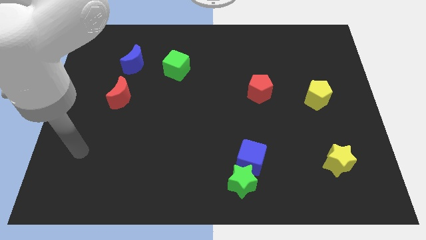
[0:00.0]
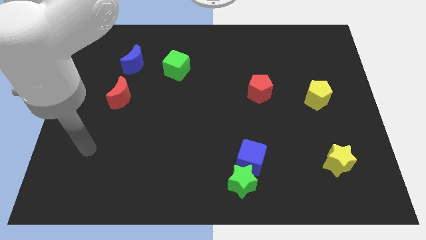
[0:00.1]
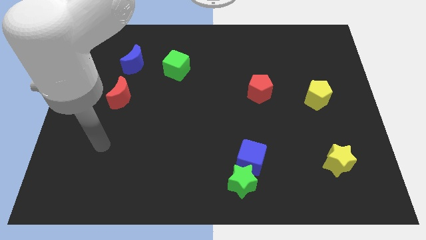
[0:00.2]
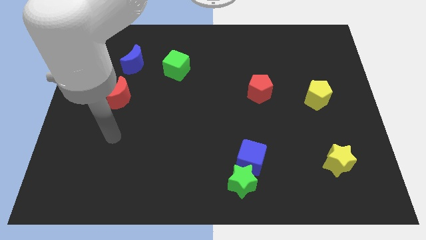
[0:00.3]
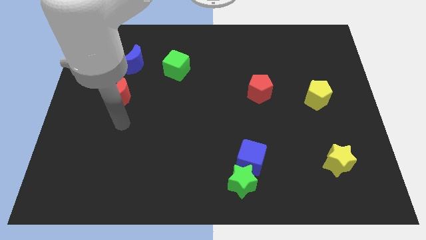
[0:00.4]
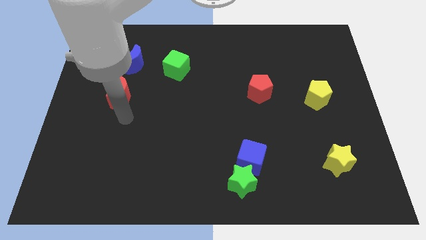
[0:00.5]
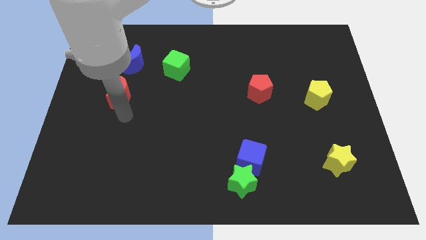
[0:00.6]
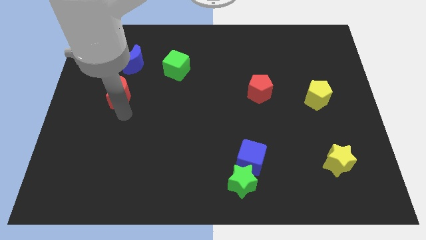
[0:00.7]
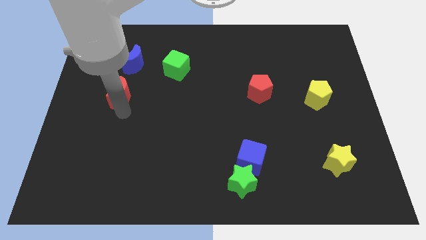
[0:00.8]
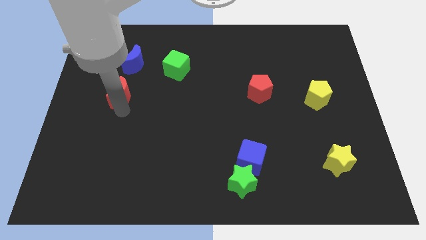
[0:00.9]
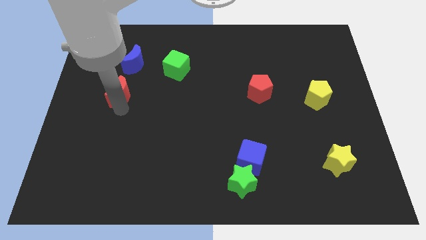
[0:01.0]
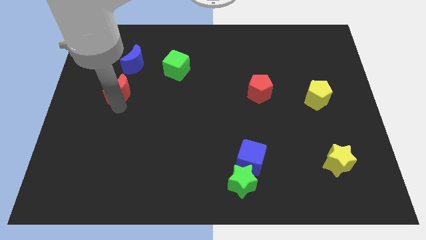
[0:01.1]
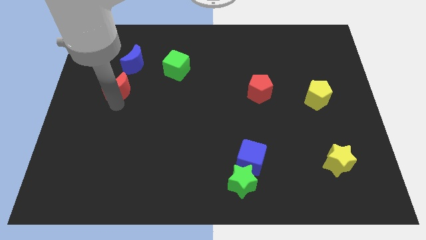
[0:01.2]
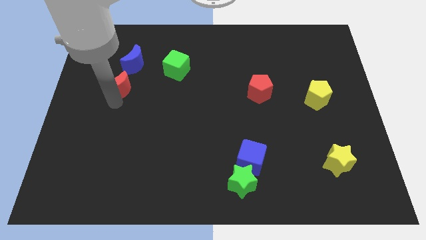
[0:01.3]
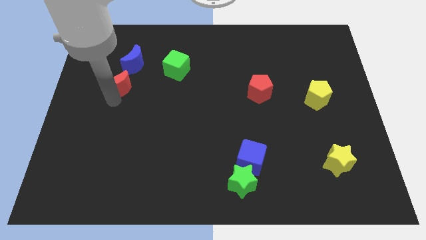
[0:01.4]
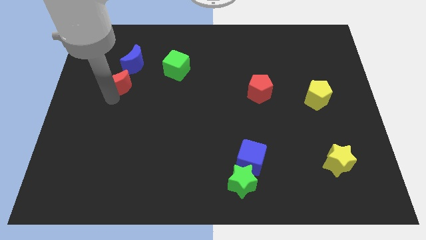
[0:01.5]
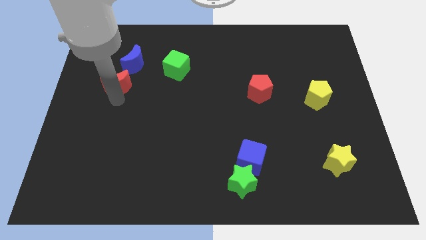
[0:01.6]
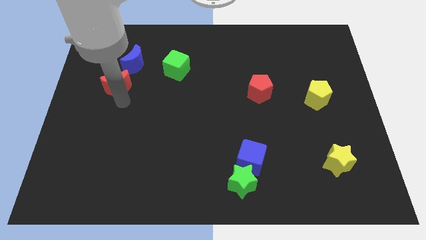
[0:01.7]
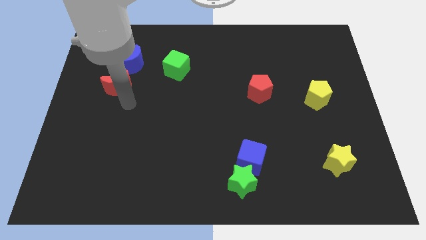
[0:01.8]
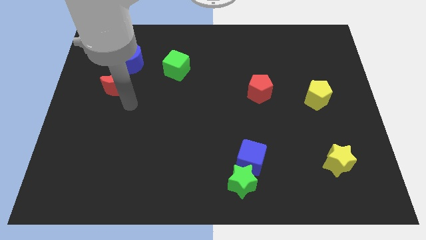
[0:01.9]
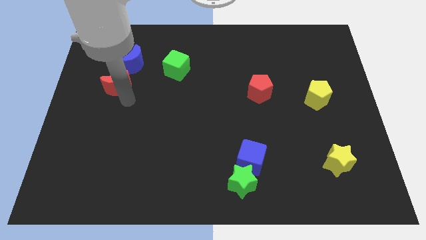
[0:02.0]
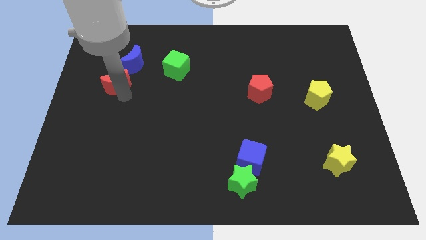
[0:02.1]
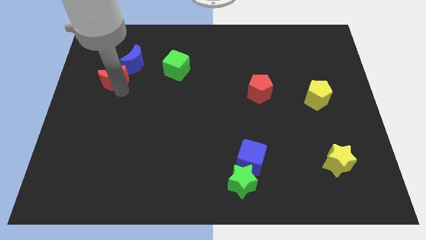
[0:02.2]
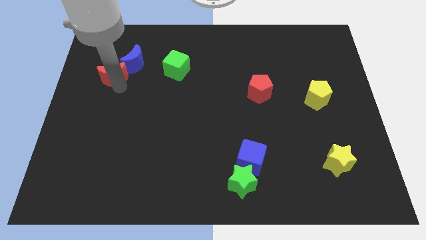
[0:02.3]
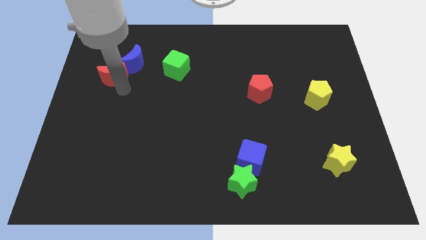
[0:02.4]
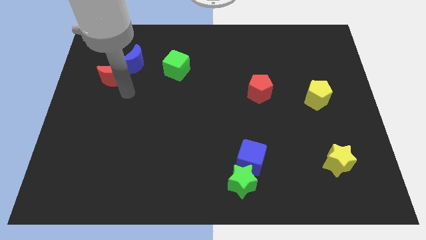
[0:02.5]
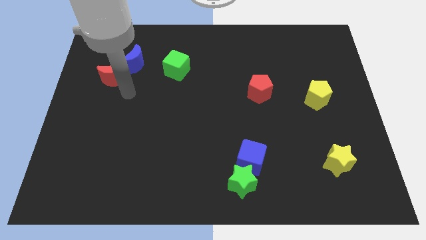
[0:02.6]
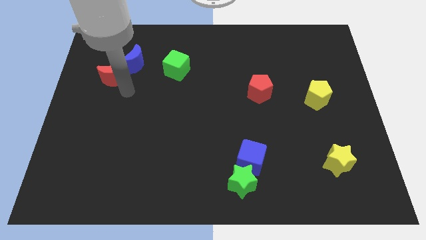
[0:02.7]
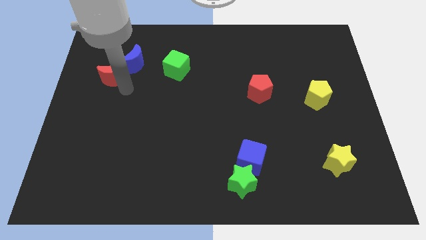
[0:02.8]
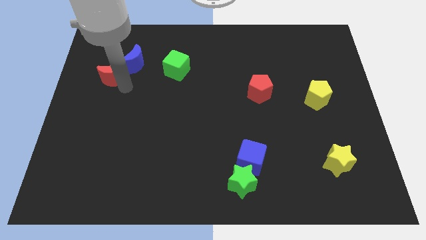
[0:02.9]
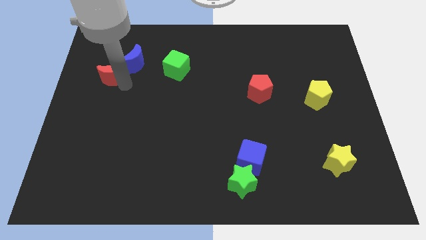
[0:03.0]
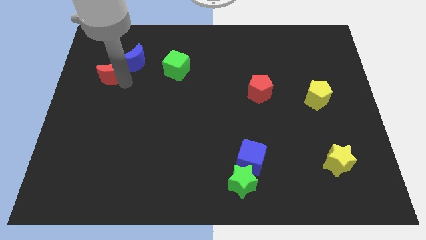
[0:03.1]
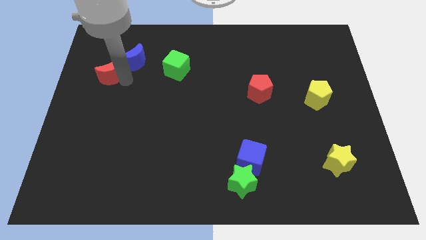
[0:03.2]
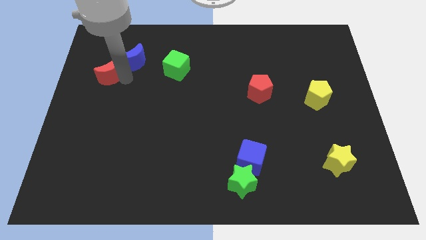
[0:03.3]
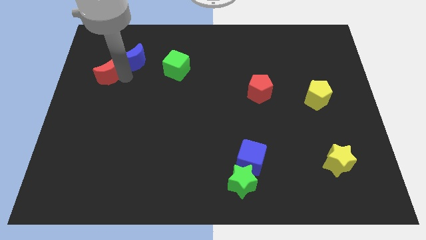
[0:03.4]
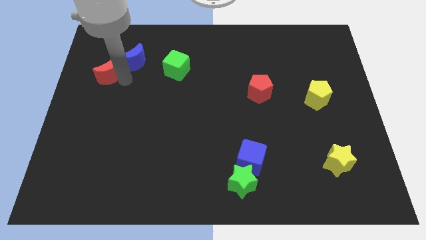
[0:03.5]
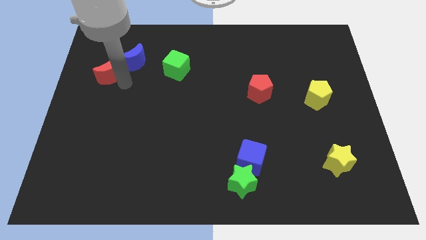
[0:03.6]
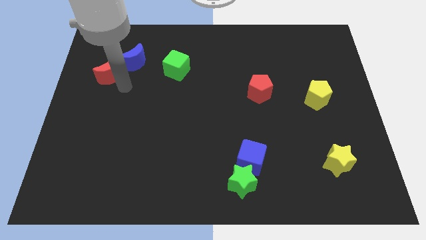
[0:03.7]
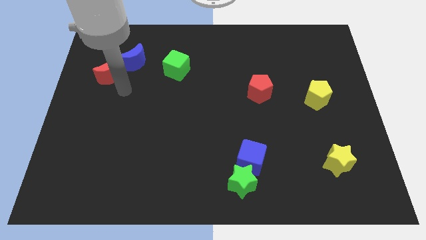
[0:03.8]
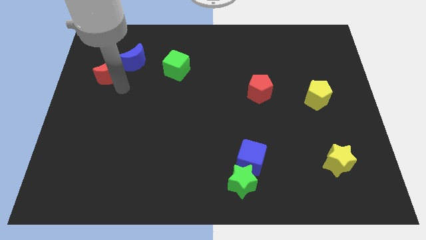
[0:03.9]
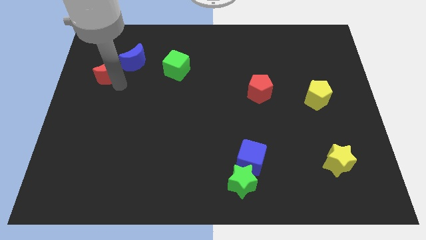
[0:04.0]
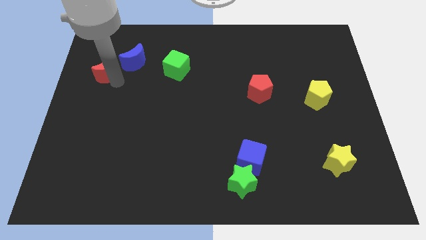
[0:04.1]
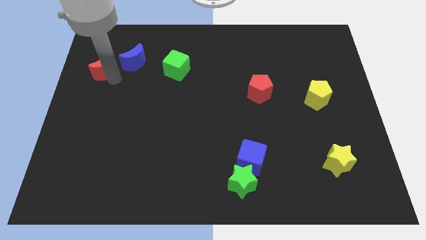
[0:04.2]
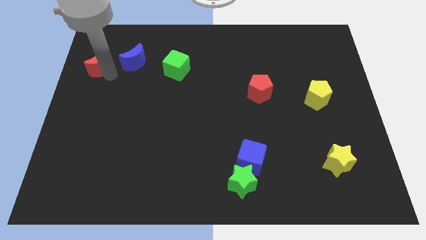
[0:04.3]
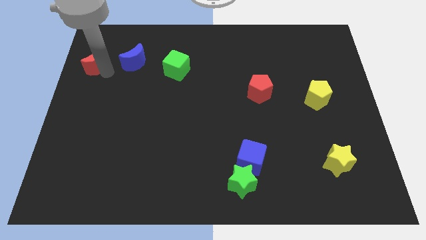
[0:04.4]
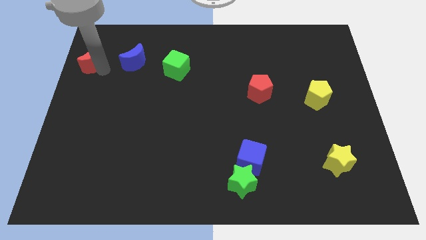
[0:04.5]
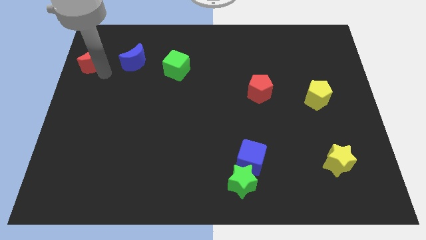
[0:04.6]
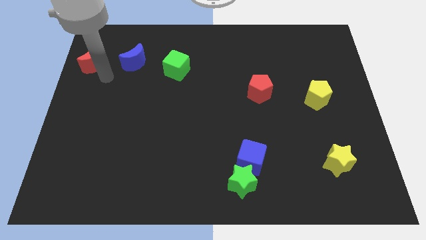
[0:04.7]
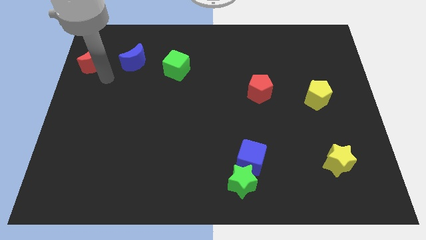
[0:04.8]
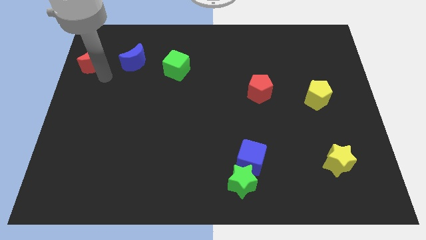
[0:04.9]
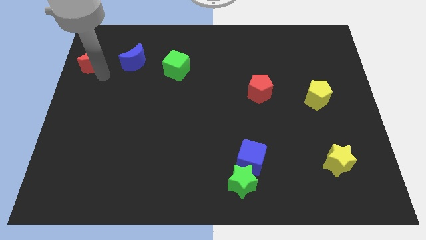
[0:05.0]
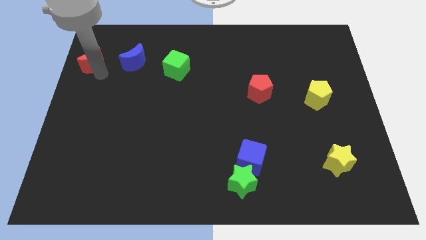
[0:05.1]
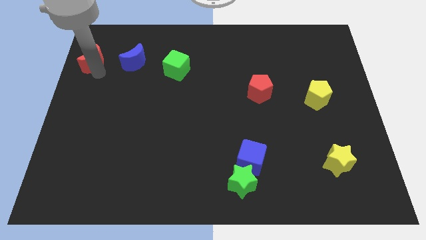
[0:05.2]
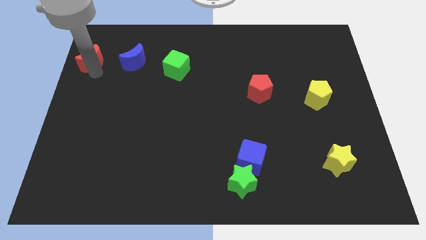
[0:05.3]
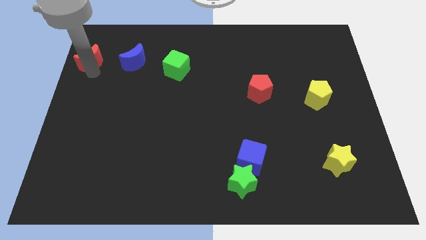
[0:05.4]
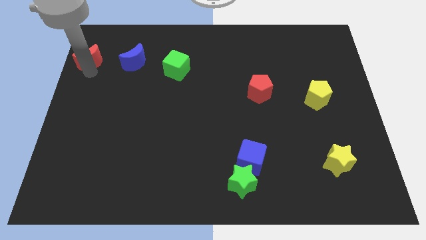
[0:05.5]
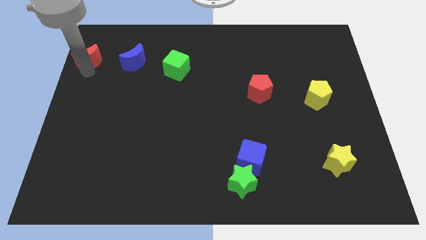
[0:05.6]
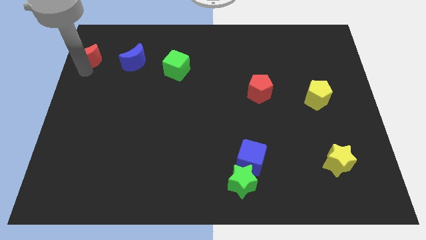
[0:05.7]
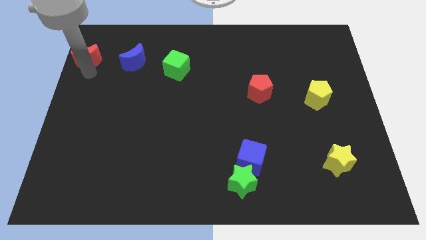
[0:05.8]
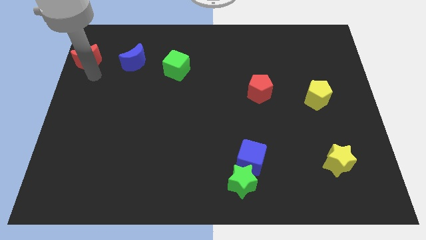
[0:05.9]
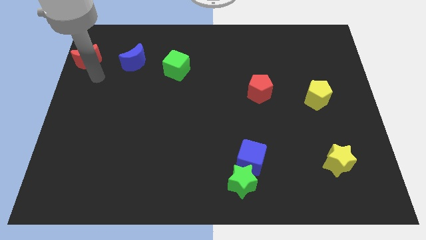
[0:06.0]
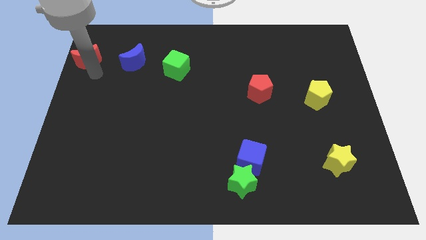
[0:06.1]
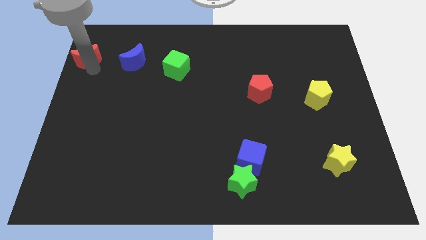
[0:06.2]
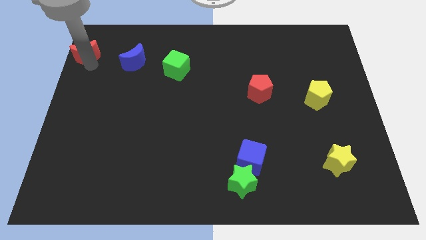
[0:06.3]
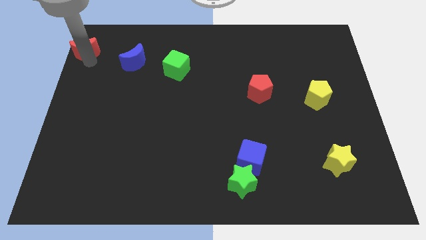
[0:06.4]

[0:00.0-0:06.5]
put the red moon to the top left of the board

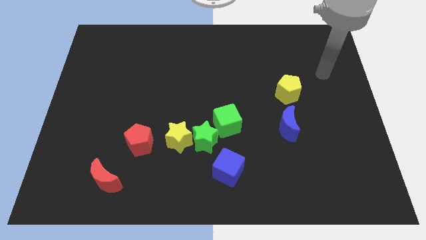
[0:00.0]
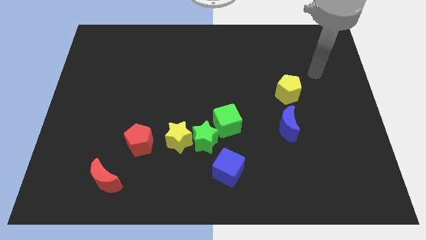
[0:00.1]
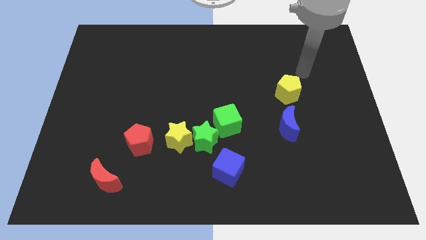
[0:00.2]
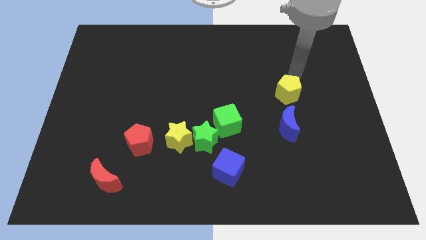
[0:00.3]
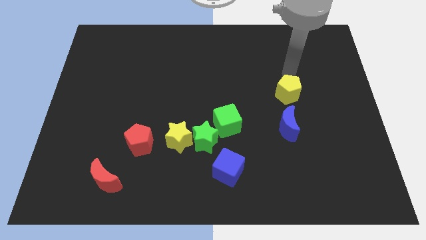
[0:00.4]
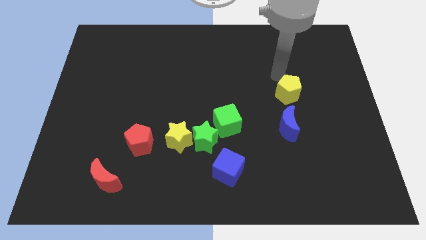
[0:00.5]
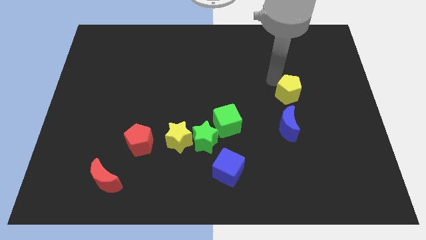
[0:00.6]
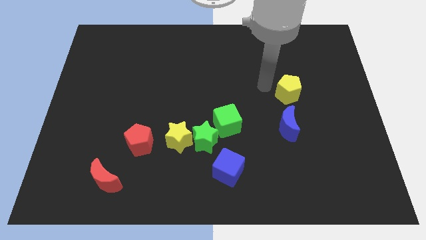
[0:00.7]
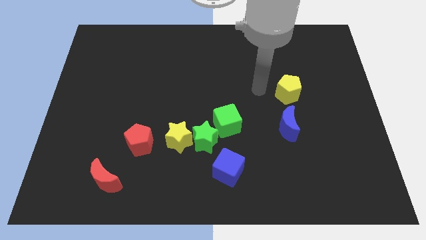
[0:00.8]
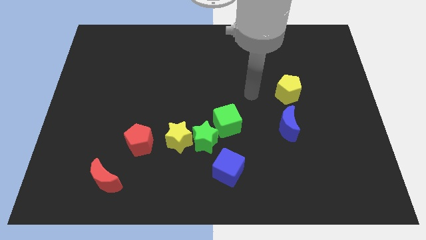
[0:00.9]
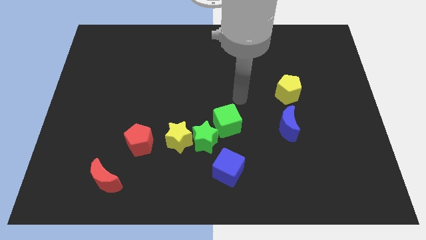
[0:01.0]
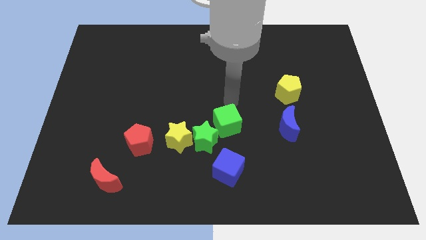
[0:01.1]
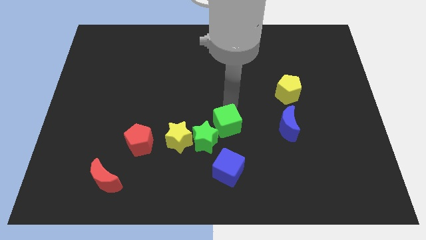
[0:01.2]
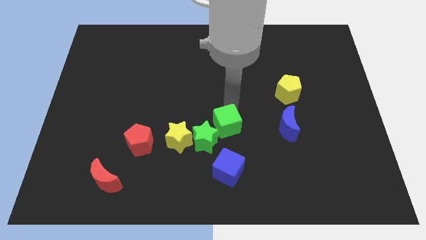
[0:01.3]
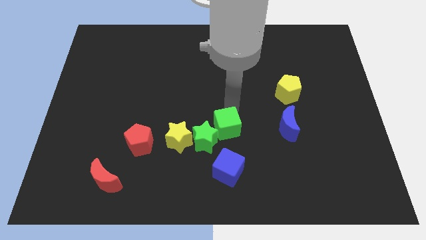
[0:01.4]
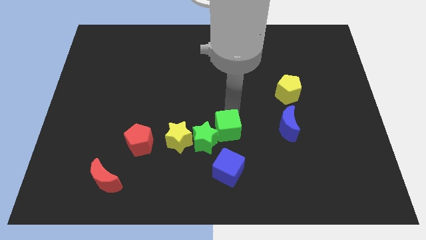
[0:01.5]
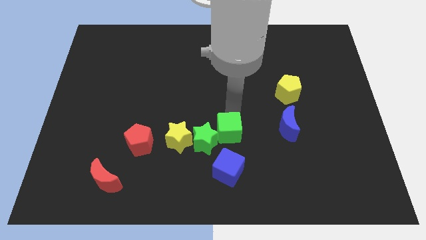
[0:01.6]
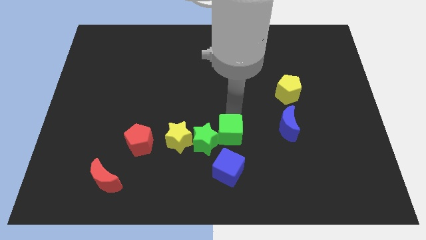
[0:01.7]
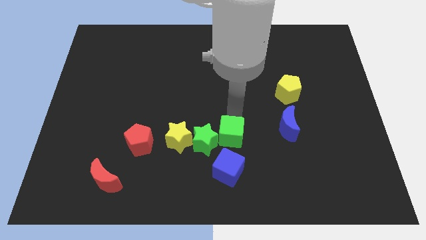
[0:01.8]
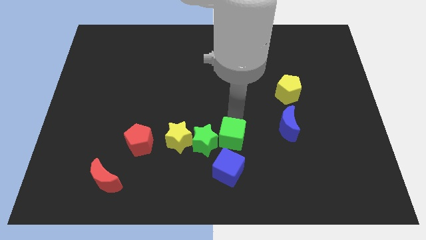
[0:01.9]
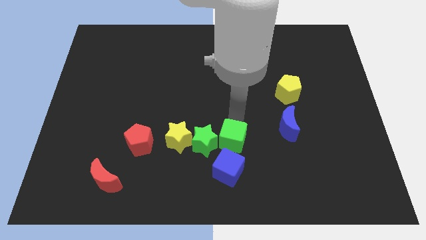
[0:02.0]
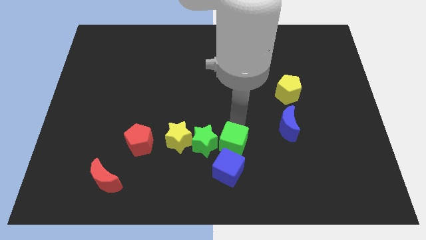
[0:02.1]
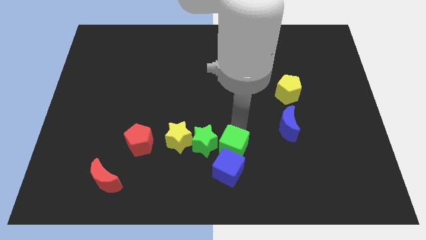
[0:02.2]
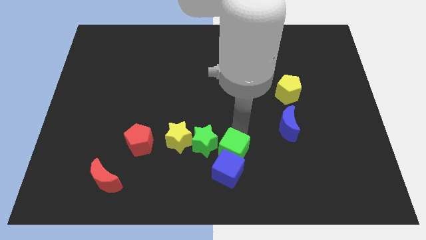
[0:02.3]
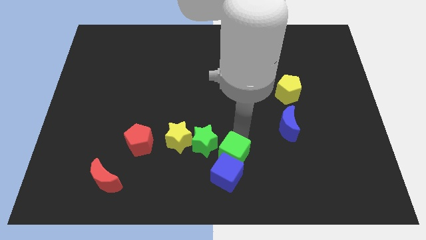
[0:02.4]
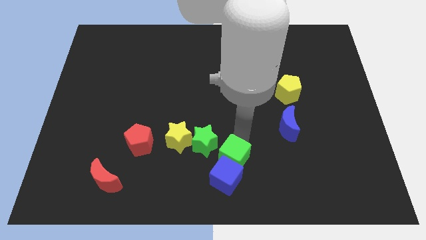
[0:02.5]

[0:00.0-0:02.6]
move the green cube to the bottom side
